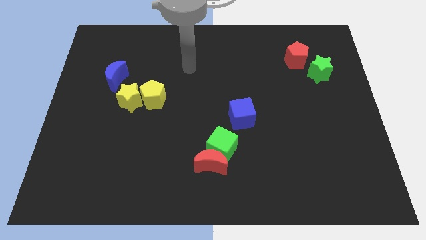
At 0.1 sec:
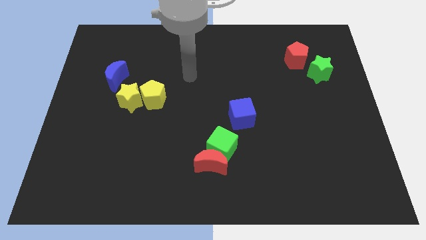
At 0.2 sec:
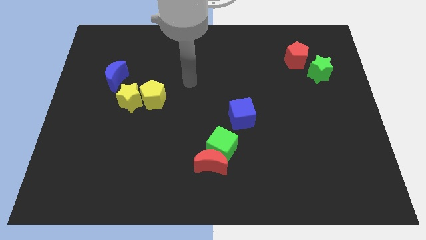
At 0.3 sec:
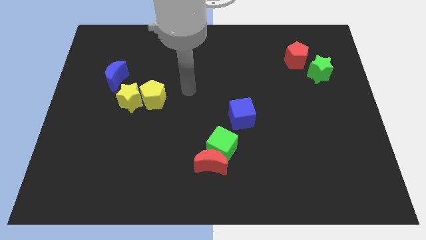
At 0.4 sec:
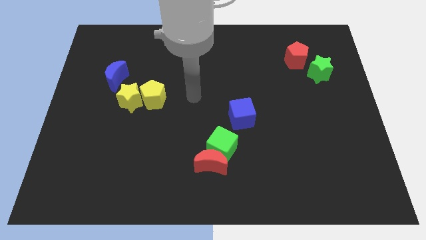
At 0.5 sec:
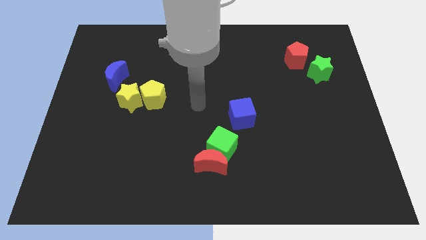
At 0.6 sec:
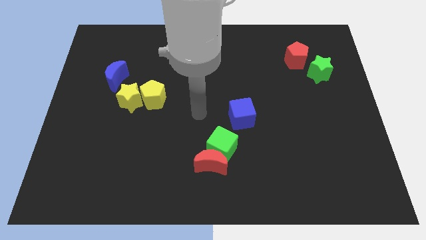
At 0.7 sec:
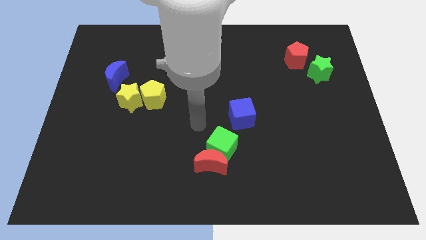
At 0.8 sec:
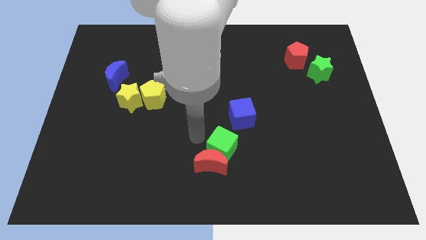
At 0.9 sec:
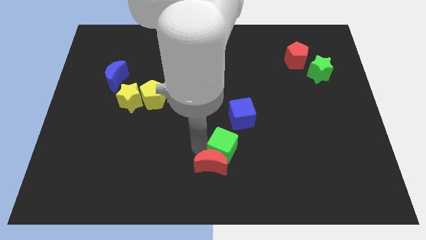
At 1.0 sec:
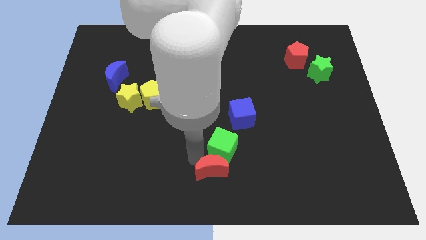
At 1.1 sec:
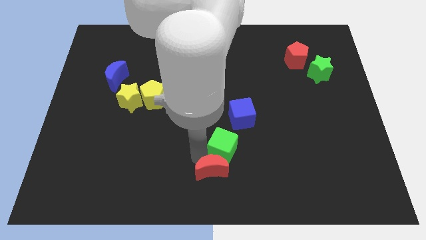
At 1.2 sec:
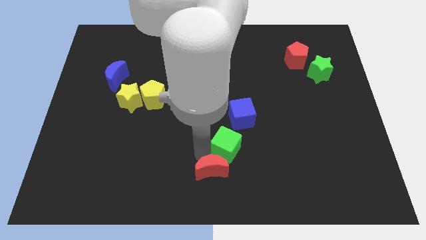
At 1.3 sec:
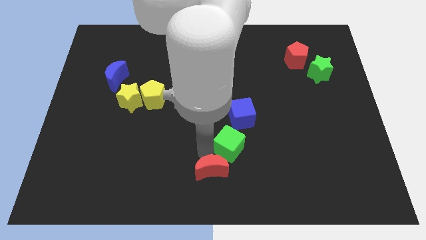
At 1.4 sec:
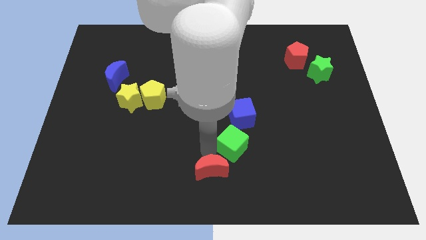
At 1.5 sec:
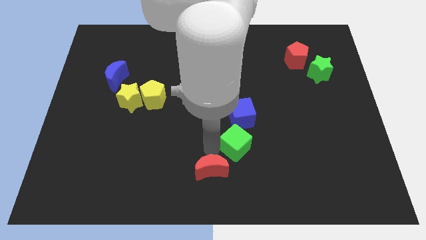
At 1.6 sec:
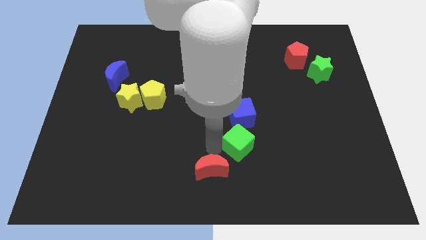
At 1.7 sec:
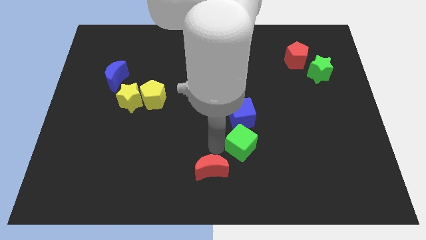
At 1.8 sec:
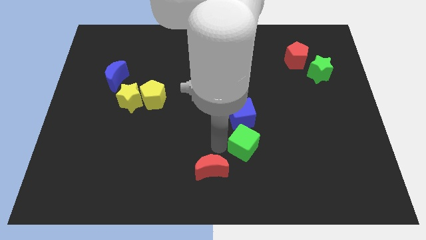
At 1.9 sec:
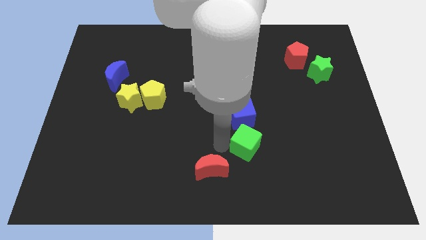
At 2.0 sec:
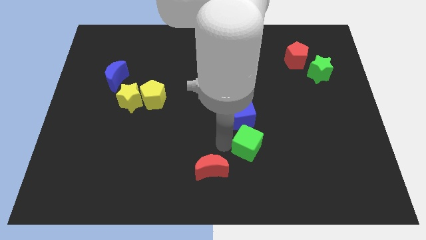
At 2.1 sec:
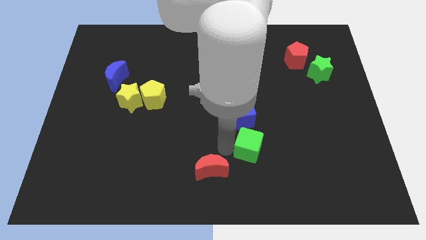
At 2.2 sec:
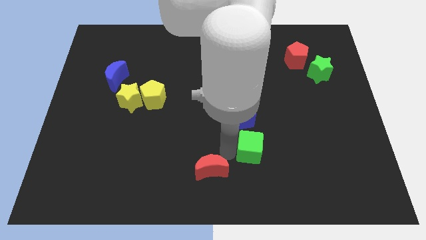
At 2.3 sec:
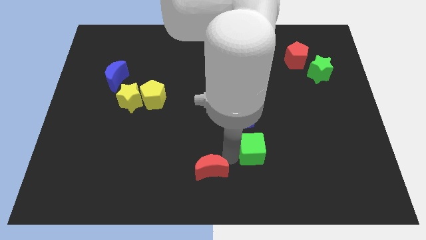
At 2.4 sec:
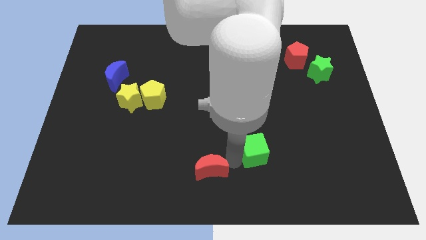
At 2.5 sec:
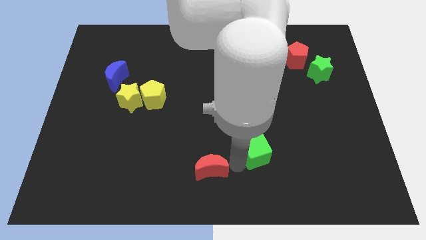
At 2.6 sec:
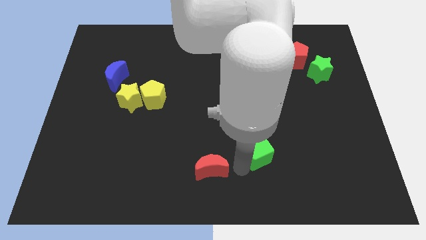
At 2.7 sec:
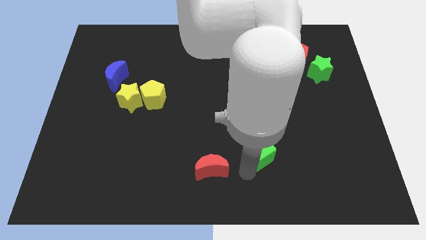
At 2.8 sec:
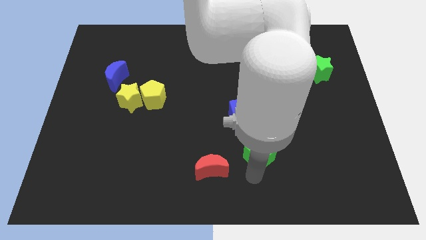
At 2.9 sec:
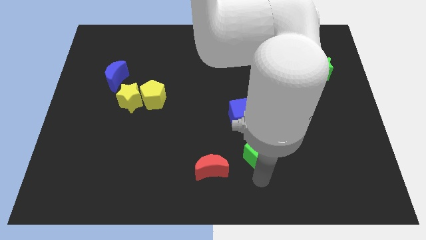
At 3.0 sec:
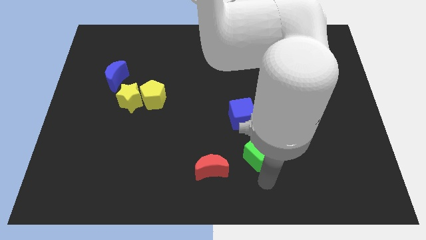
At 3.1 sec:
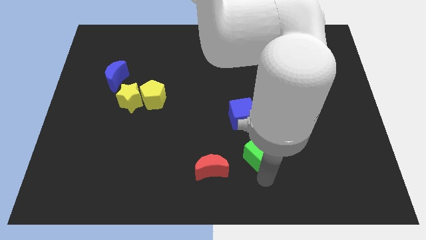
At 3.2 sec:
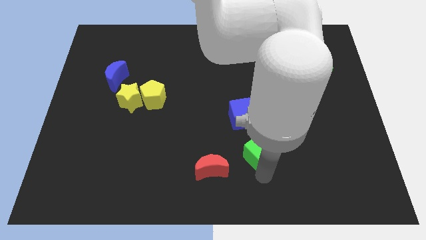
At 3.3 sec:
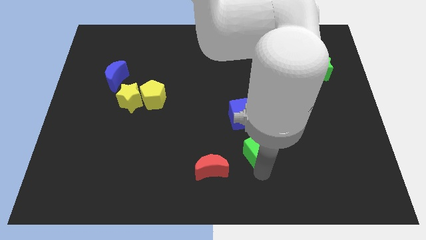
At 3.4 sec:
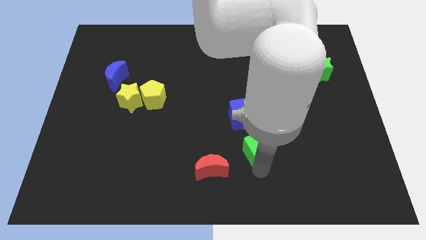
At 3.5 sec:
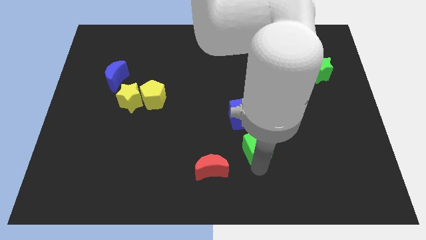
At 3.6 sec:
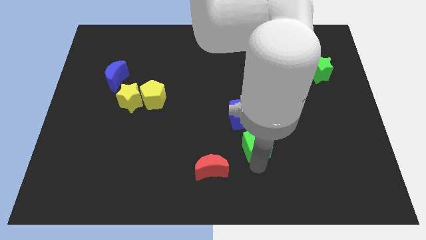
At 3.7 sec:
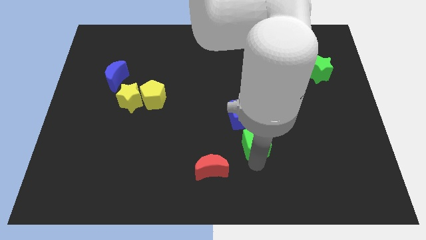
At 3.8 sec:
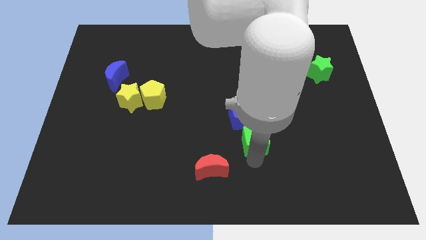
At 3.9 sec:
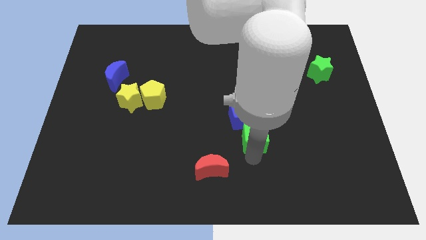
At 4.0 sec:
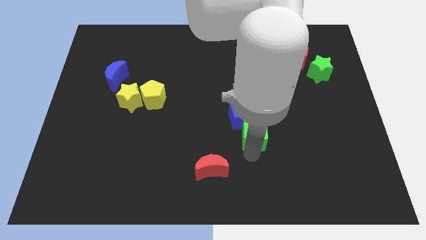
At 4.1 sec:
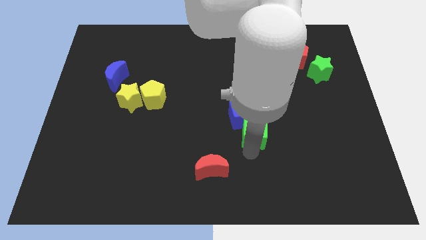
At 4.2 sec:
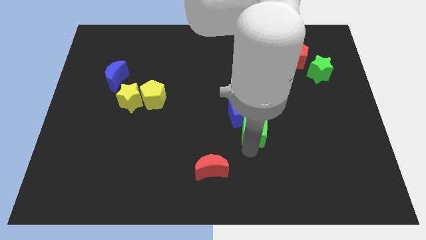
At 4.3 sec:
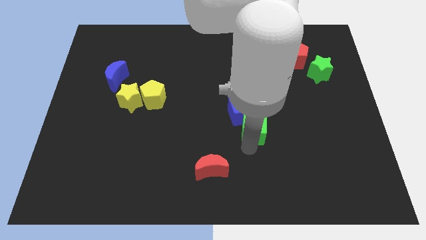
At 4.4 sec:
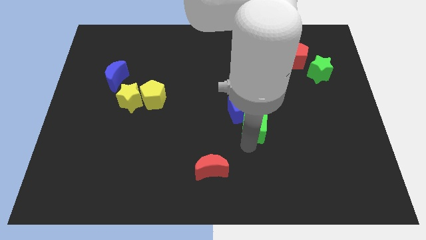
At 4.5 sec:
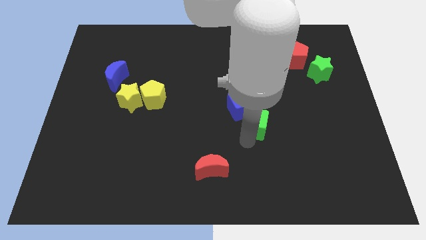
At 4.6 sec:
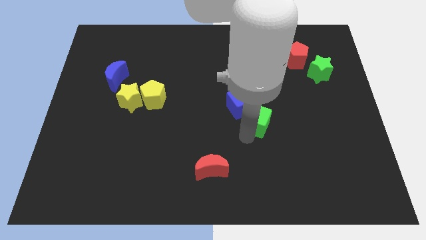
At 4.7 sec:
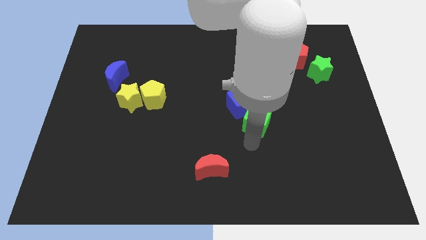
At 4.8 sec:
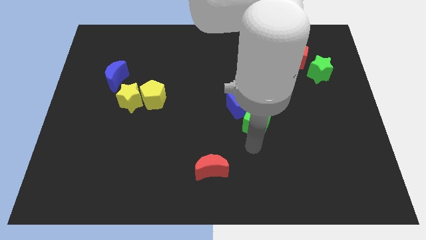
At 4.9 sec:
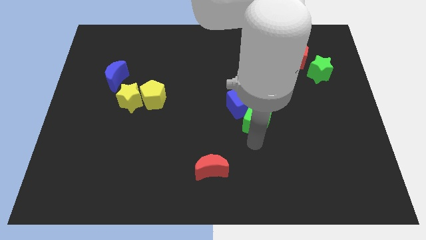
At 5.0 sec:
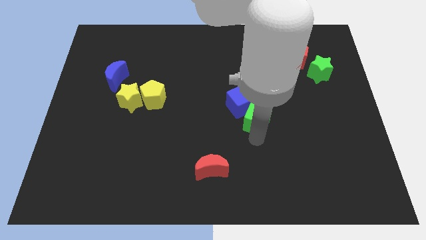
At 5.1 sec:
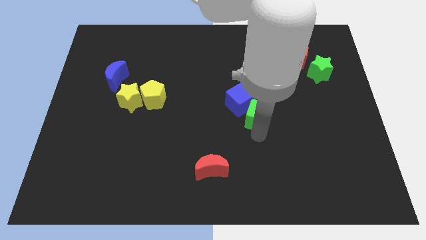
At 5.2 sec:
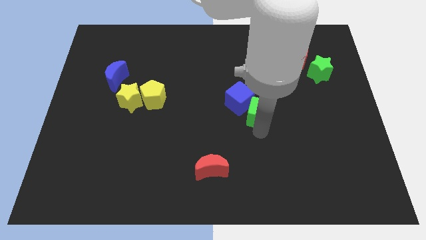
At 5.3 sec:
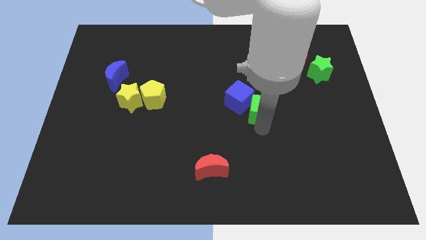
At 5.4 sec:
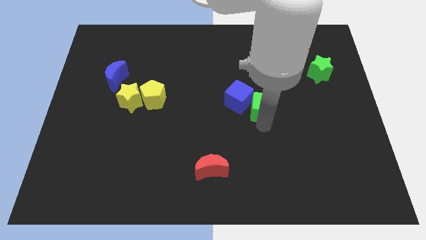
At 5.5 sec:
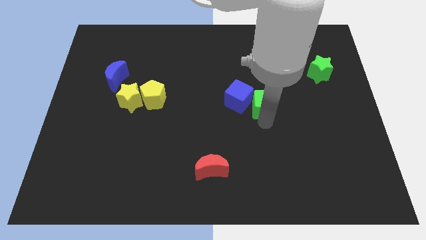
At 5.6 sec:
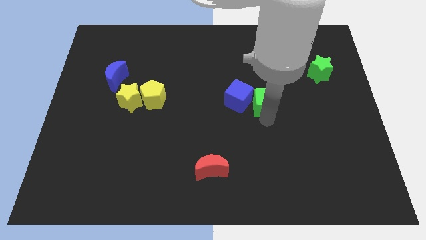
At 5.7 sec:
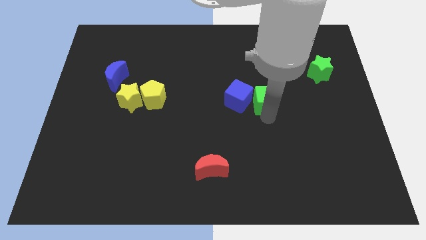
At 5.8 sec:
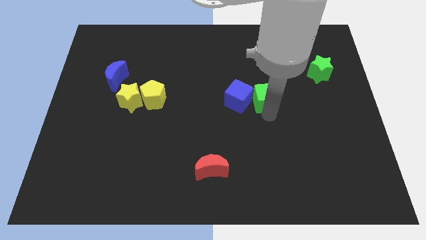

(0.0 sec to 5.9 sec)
move the green cube diagonally up and to the right of the blue cube
